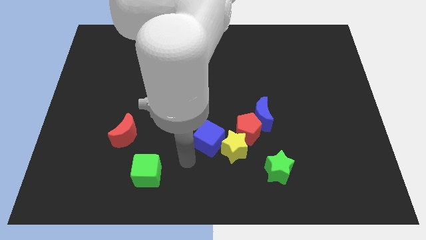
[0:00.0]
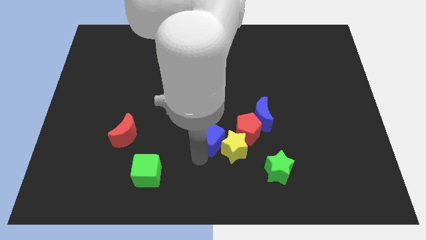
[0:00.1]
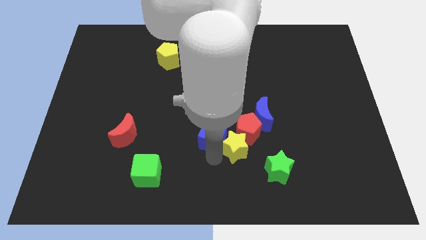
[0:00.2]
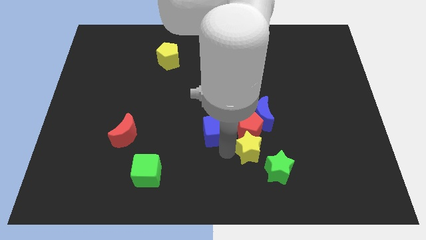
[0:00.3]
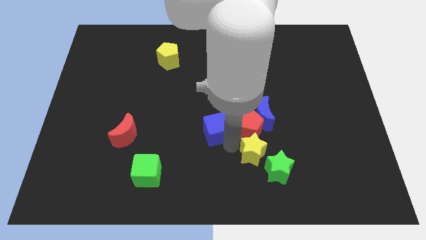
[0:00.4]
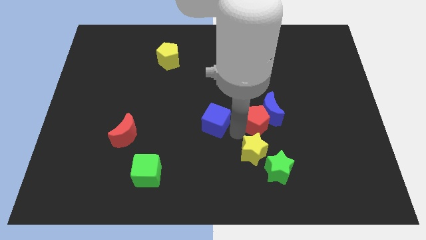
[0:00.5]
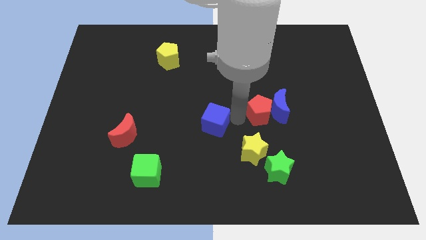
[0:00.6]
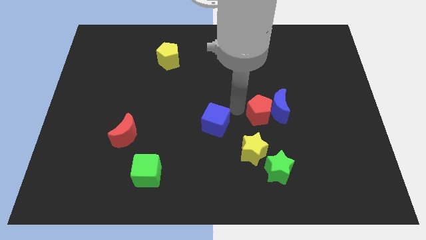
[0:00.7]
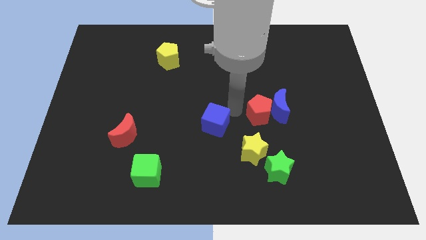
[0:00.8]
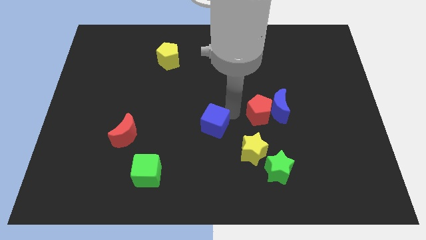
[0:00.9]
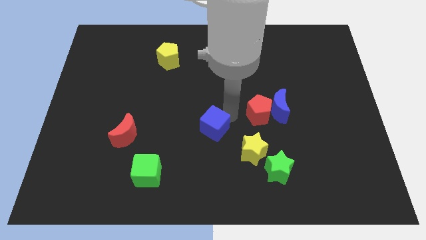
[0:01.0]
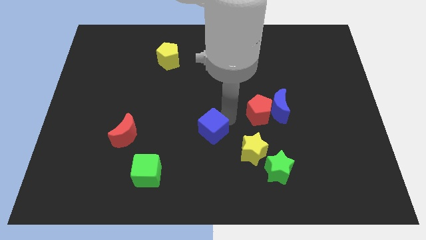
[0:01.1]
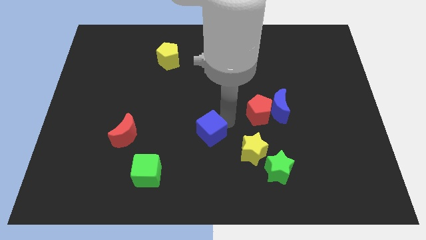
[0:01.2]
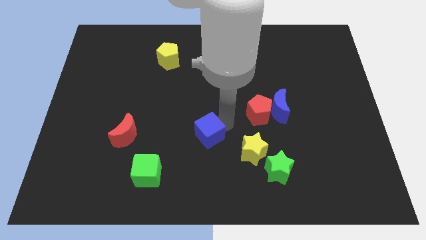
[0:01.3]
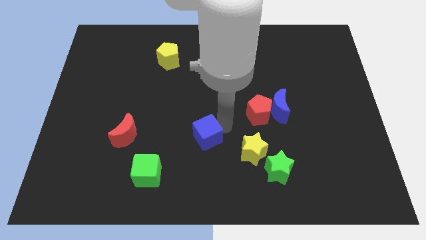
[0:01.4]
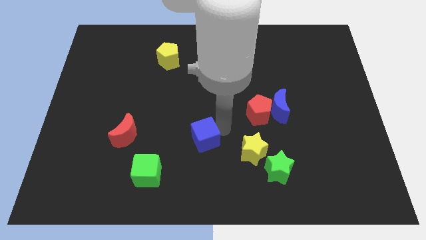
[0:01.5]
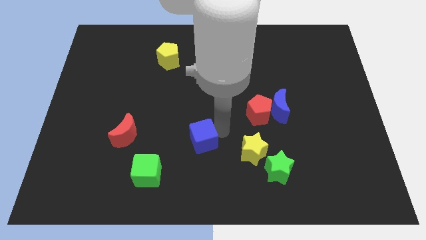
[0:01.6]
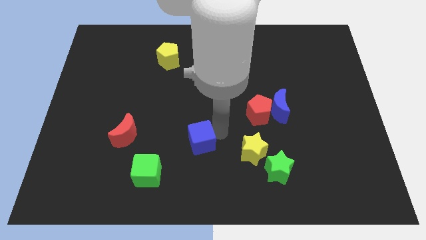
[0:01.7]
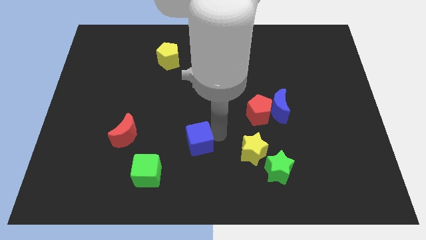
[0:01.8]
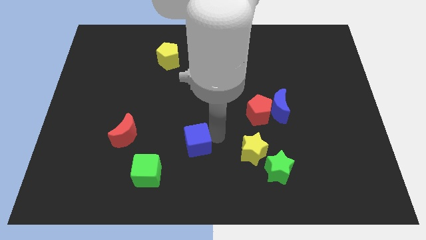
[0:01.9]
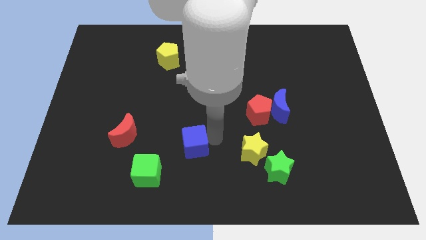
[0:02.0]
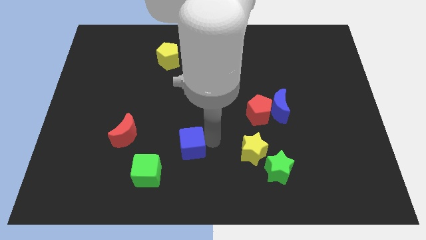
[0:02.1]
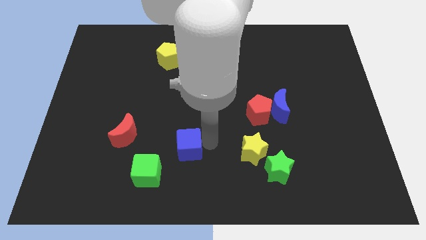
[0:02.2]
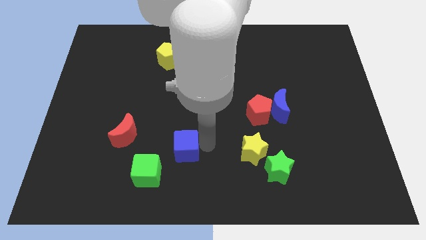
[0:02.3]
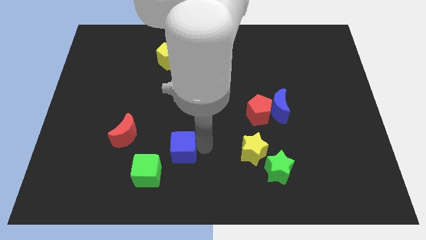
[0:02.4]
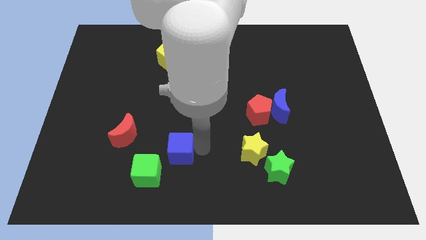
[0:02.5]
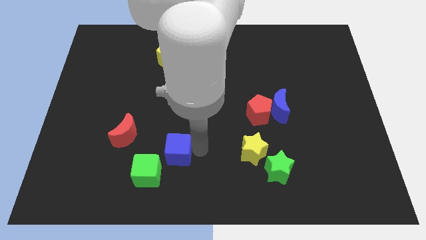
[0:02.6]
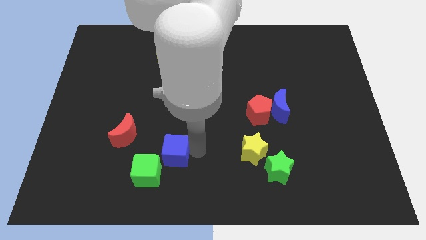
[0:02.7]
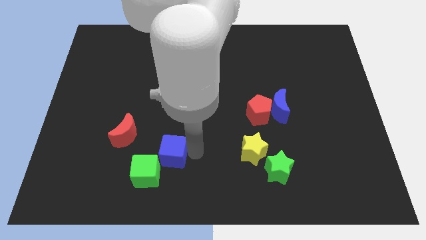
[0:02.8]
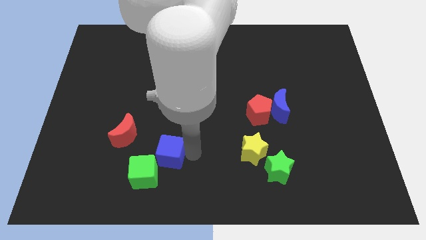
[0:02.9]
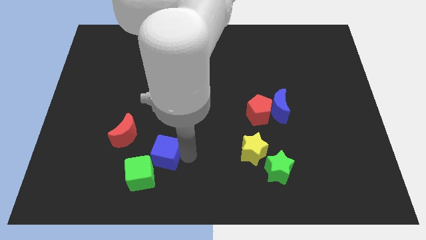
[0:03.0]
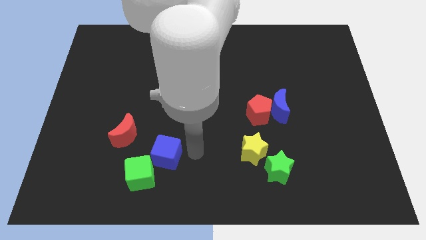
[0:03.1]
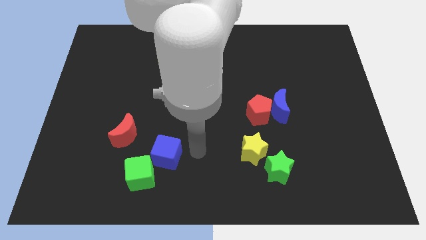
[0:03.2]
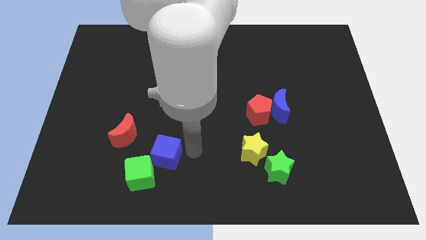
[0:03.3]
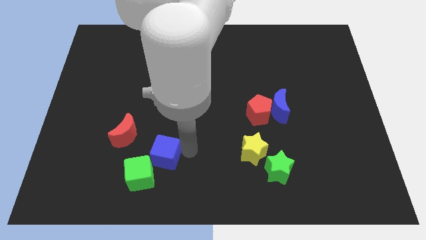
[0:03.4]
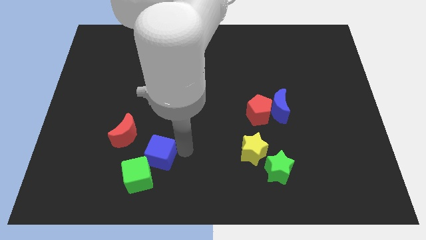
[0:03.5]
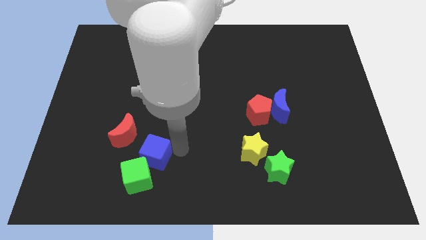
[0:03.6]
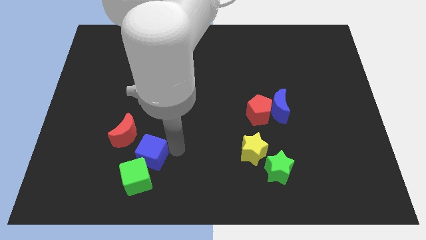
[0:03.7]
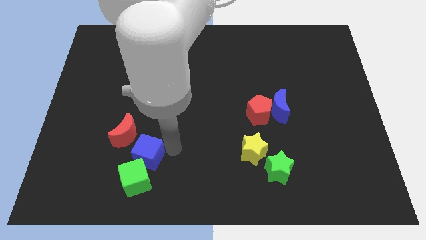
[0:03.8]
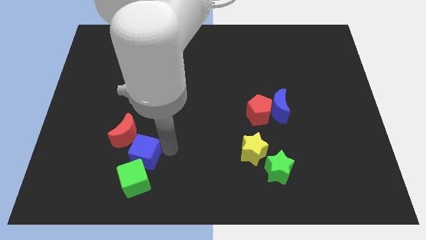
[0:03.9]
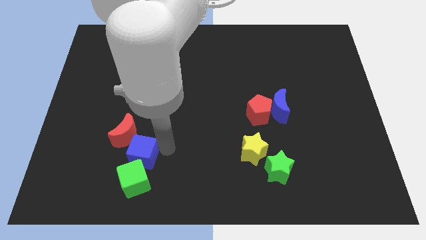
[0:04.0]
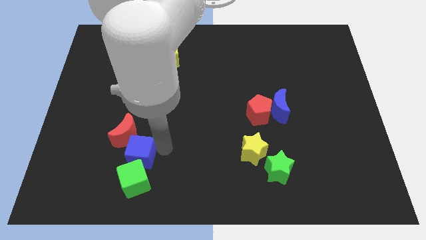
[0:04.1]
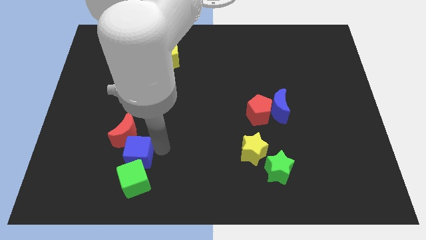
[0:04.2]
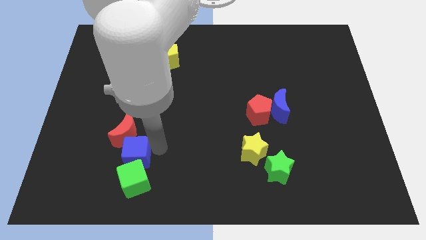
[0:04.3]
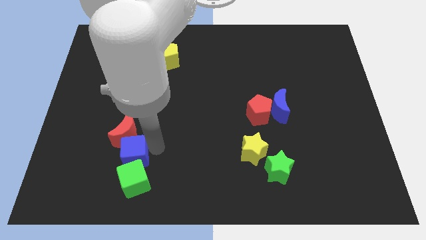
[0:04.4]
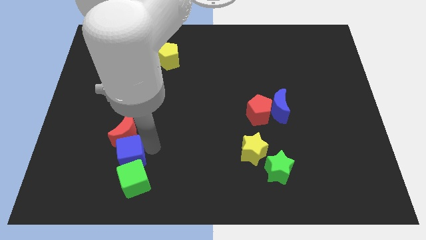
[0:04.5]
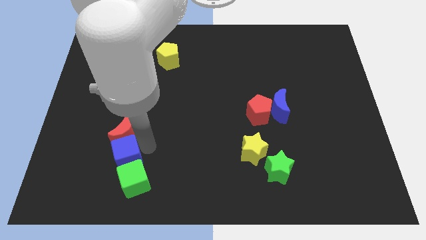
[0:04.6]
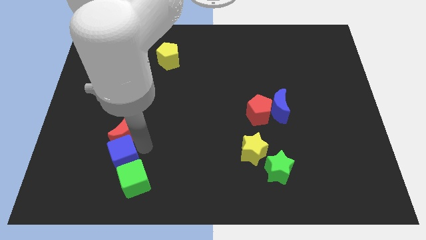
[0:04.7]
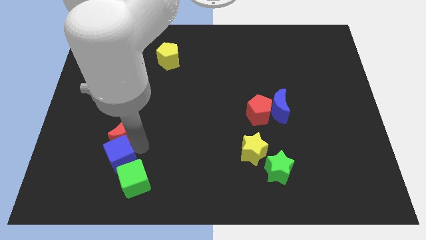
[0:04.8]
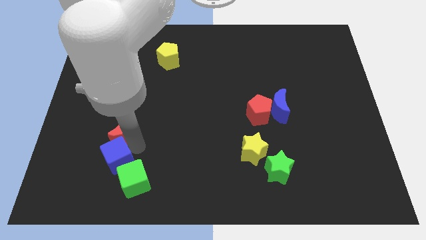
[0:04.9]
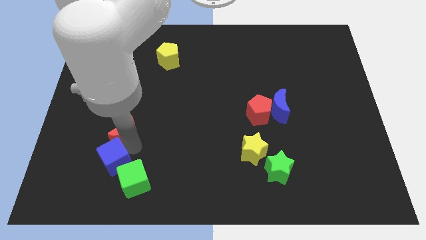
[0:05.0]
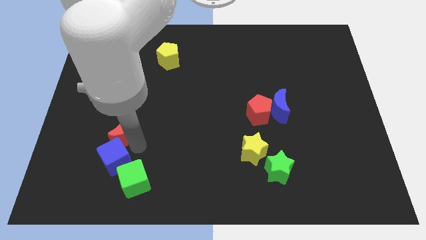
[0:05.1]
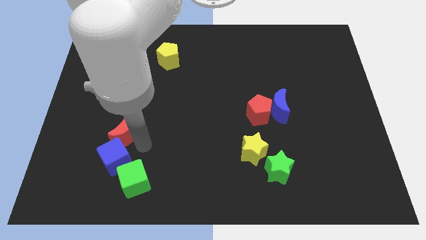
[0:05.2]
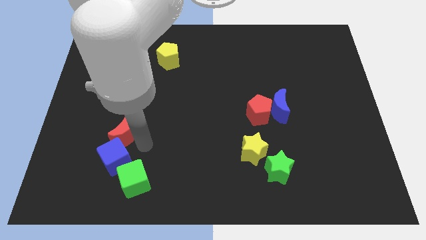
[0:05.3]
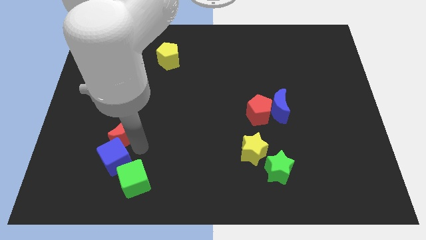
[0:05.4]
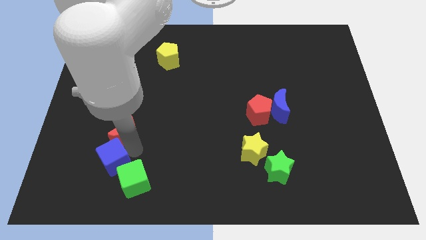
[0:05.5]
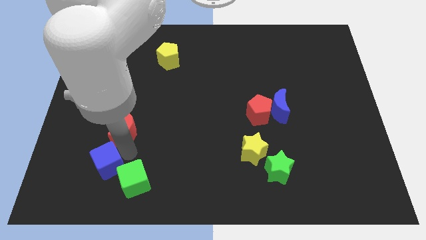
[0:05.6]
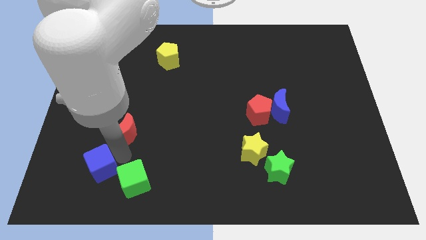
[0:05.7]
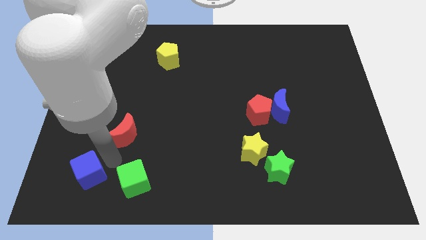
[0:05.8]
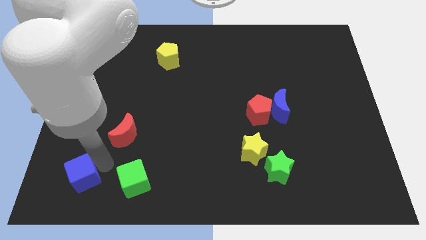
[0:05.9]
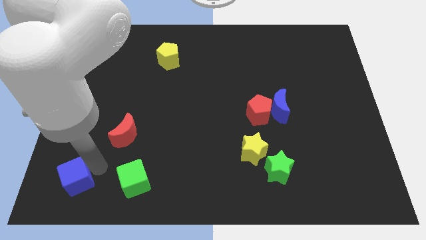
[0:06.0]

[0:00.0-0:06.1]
slide the blue cube to the lower left corner
